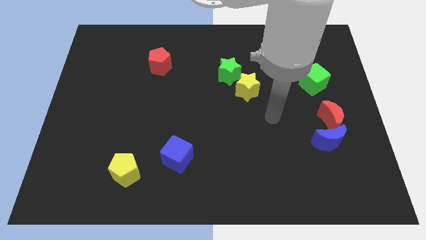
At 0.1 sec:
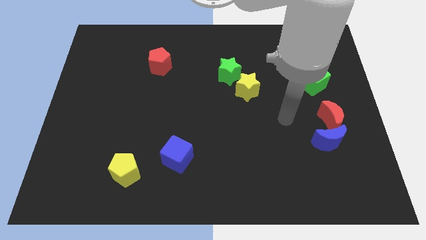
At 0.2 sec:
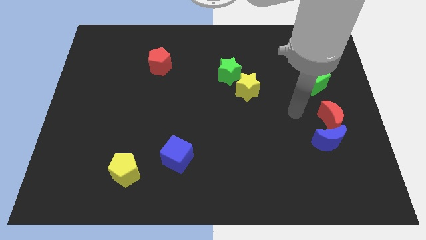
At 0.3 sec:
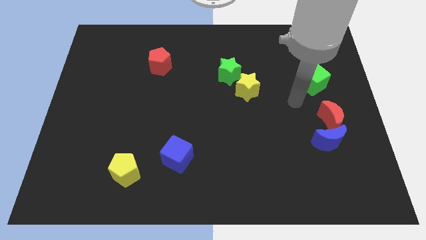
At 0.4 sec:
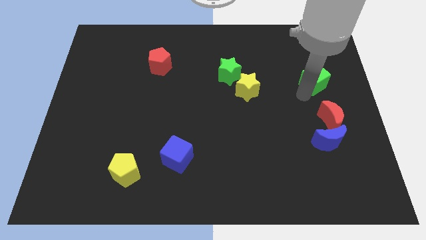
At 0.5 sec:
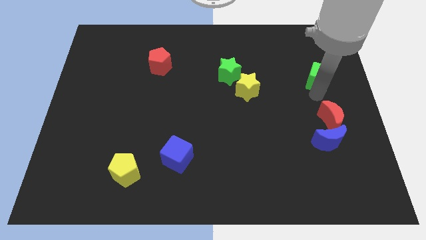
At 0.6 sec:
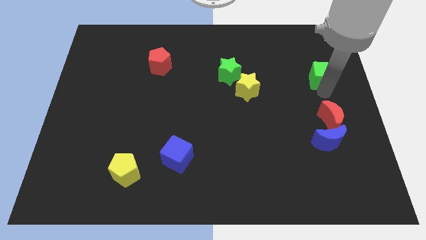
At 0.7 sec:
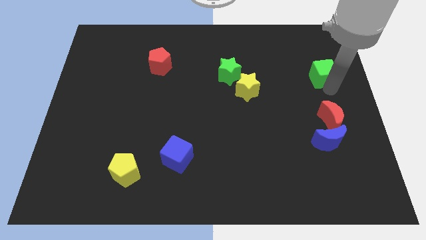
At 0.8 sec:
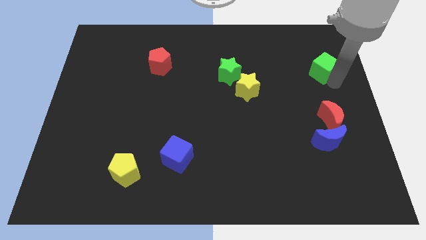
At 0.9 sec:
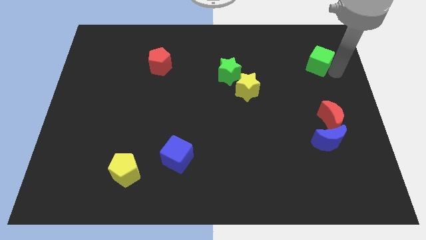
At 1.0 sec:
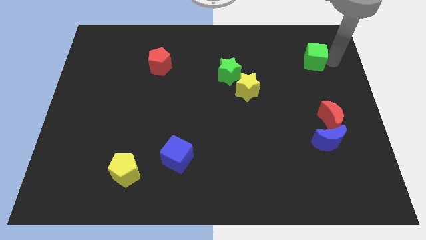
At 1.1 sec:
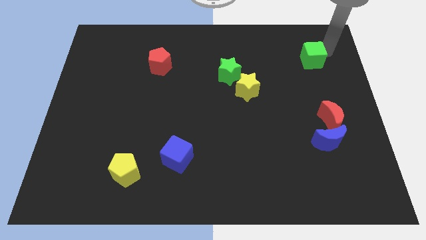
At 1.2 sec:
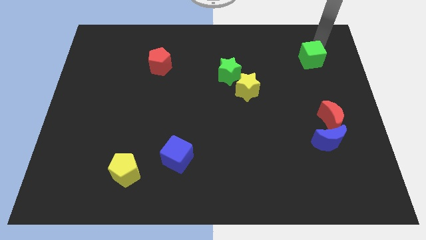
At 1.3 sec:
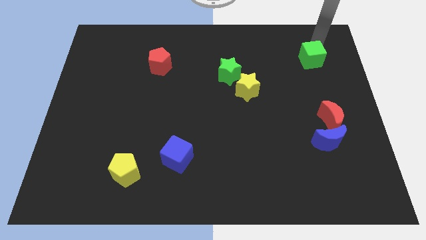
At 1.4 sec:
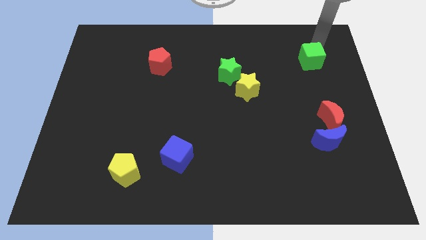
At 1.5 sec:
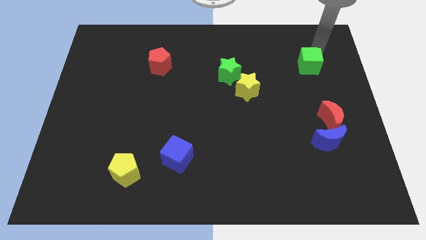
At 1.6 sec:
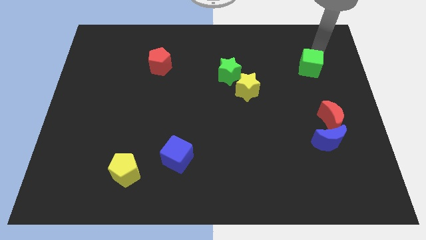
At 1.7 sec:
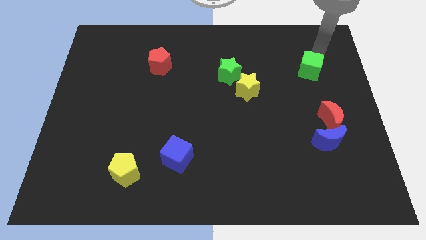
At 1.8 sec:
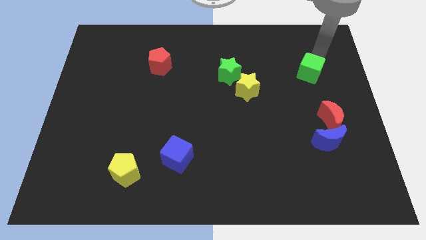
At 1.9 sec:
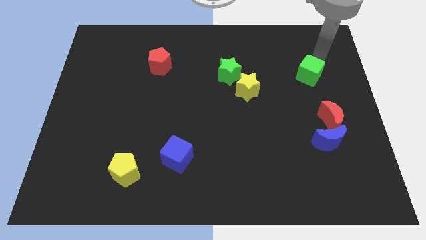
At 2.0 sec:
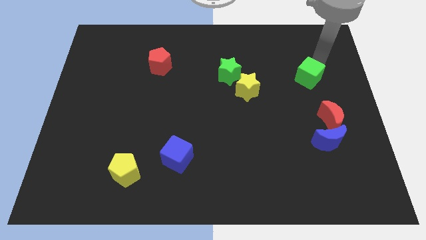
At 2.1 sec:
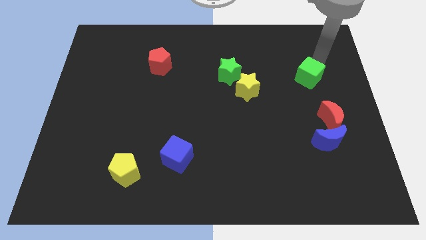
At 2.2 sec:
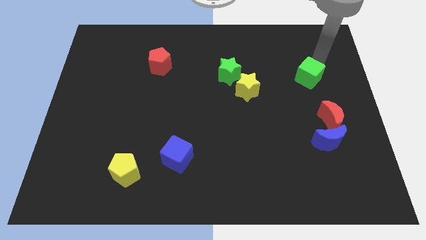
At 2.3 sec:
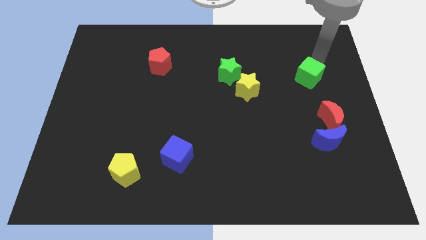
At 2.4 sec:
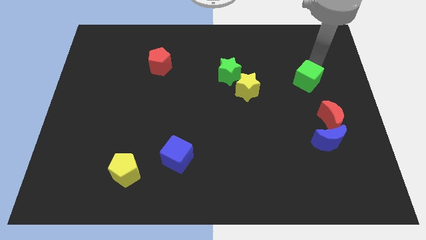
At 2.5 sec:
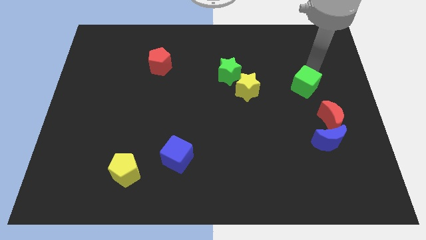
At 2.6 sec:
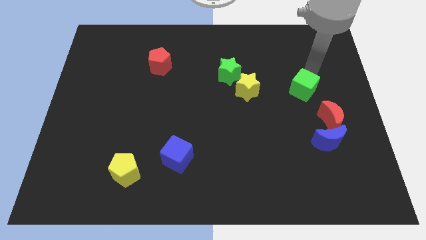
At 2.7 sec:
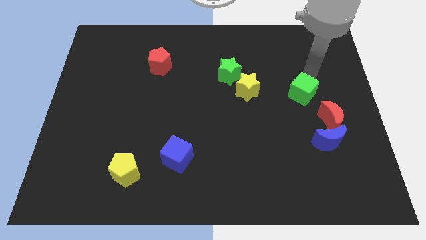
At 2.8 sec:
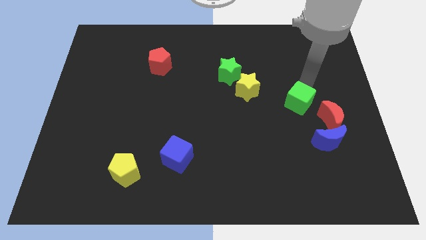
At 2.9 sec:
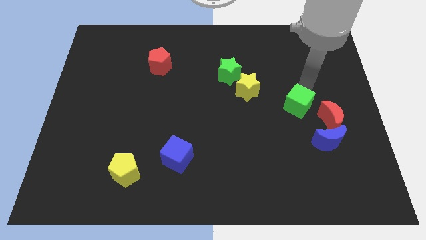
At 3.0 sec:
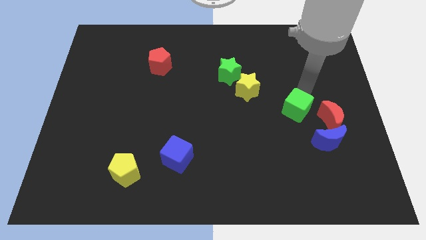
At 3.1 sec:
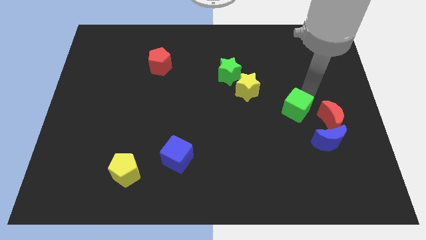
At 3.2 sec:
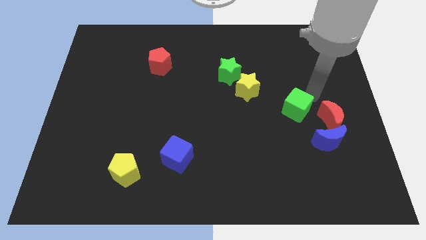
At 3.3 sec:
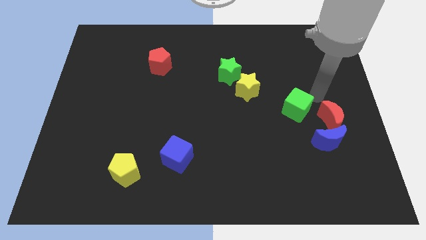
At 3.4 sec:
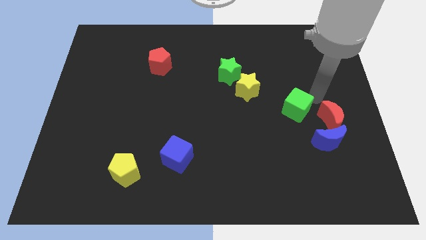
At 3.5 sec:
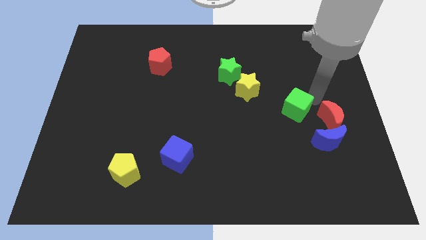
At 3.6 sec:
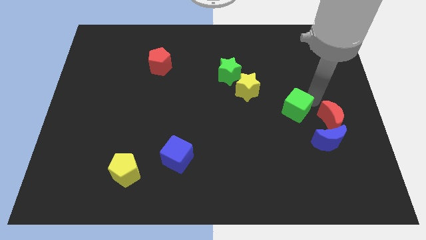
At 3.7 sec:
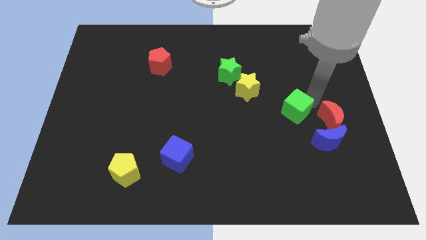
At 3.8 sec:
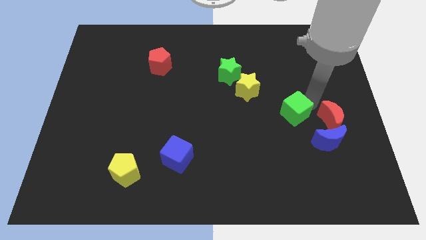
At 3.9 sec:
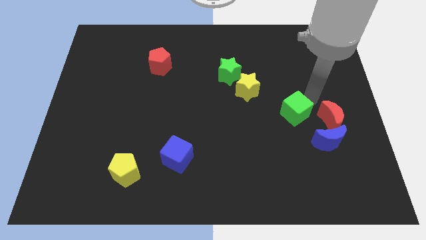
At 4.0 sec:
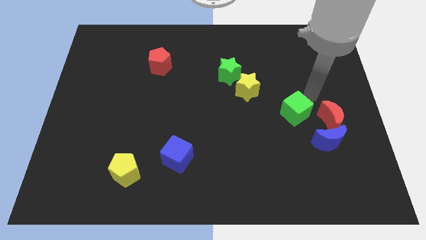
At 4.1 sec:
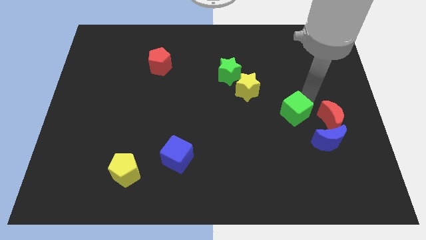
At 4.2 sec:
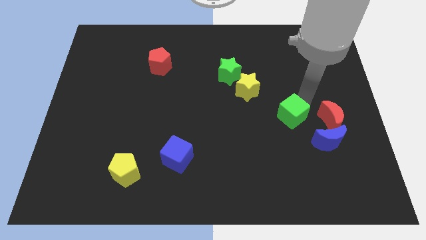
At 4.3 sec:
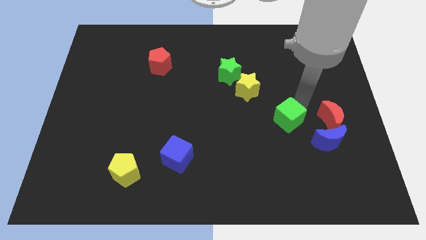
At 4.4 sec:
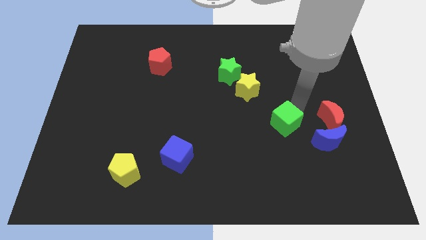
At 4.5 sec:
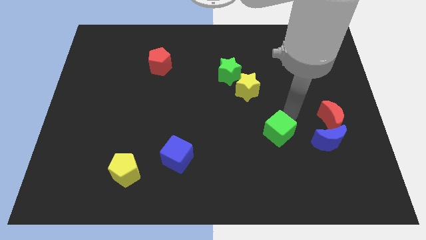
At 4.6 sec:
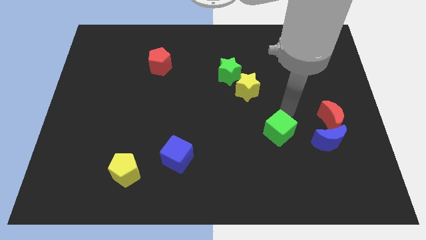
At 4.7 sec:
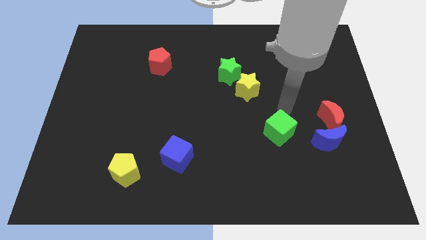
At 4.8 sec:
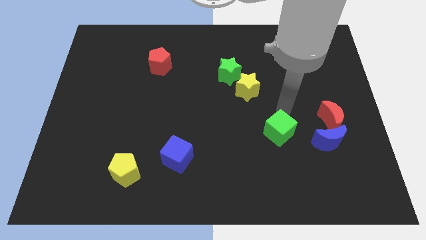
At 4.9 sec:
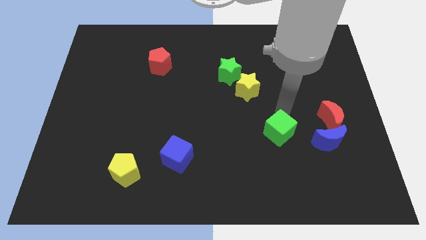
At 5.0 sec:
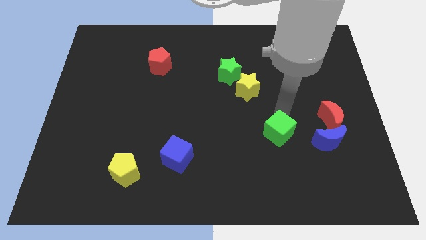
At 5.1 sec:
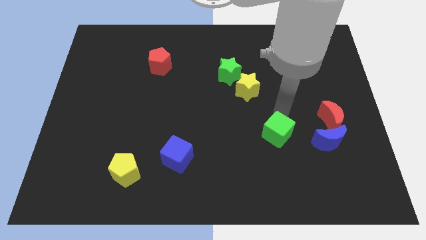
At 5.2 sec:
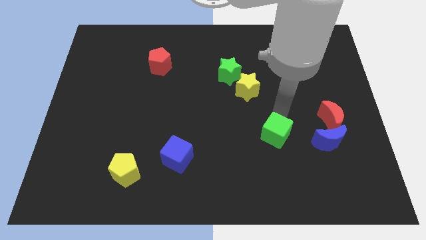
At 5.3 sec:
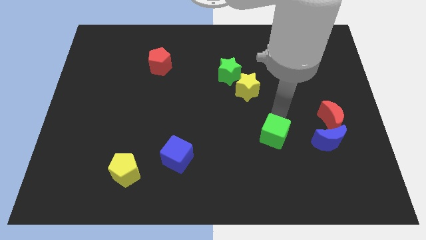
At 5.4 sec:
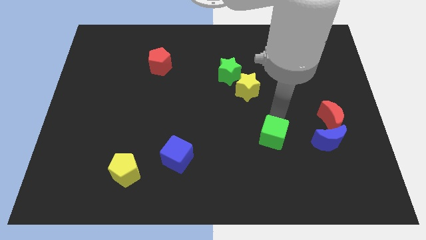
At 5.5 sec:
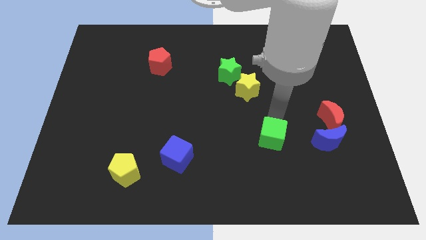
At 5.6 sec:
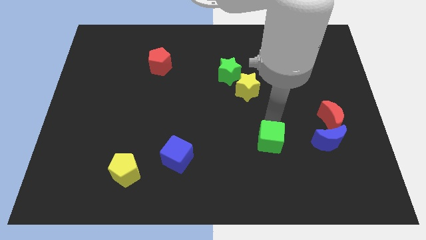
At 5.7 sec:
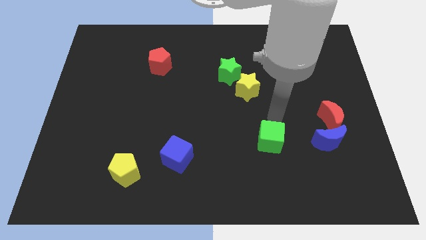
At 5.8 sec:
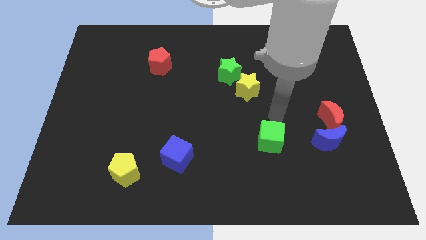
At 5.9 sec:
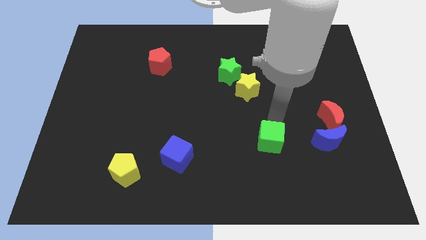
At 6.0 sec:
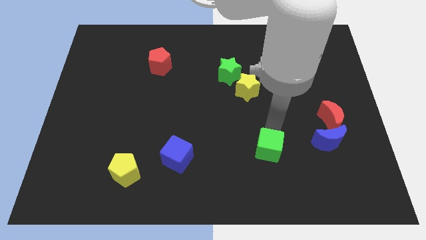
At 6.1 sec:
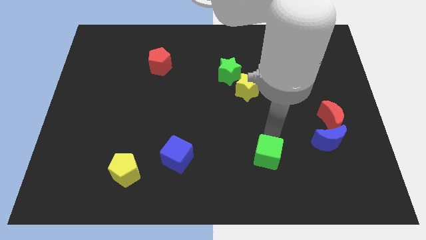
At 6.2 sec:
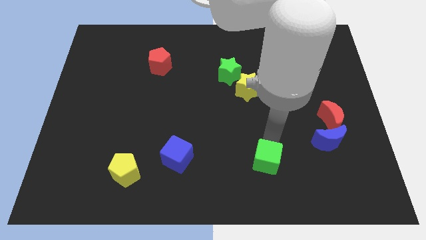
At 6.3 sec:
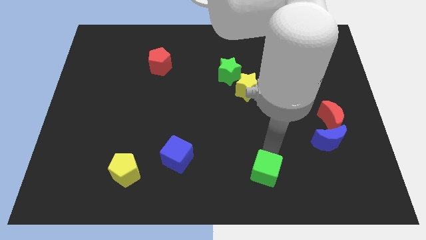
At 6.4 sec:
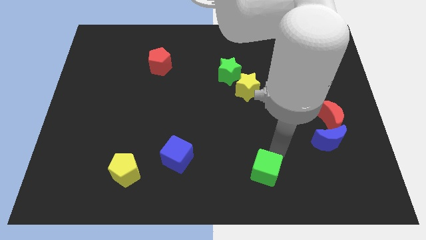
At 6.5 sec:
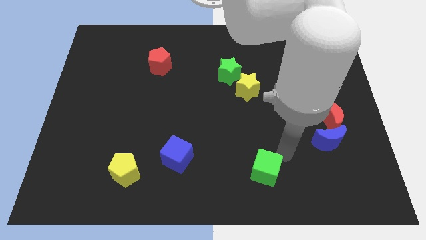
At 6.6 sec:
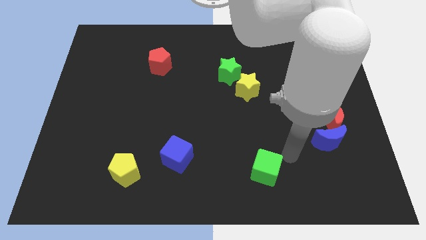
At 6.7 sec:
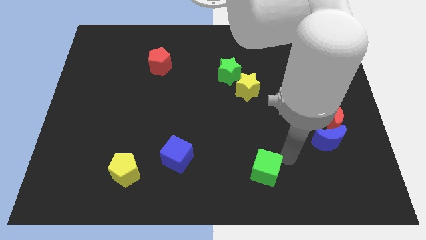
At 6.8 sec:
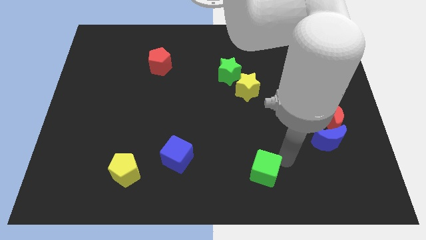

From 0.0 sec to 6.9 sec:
move the green cube to the bottom
